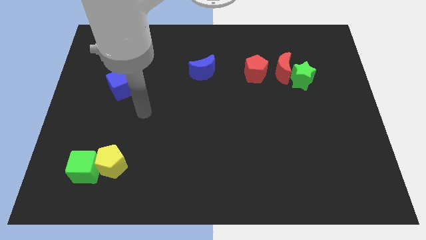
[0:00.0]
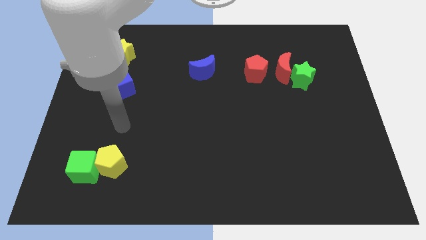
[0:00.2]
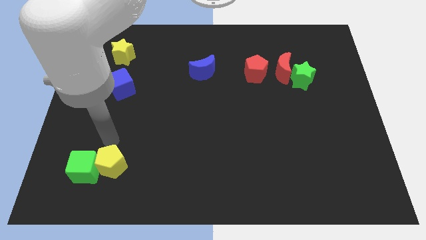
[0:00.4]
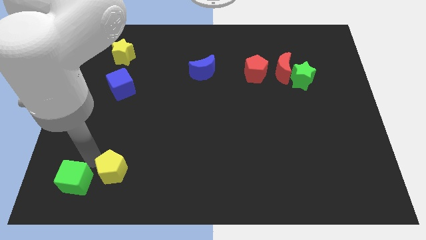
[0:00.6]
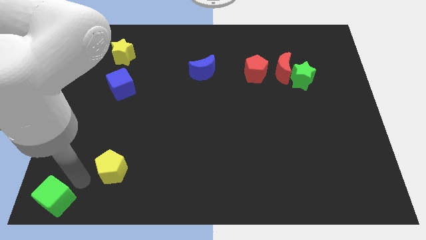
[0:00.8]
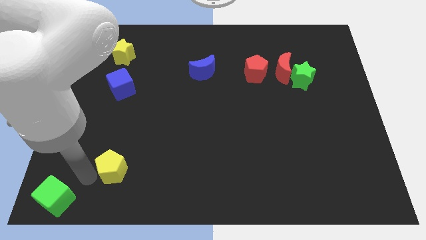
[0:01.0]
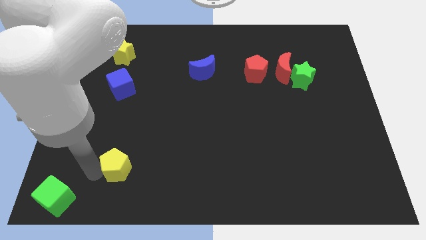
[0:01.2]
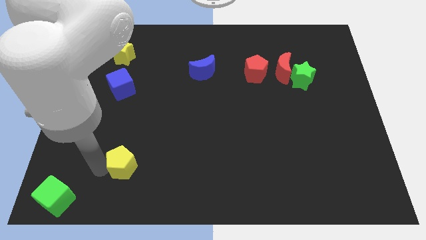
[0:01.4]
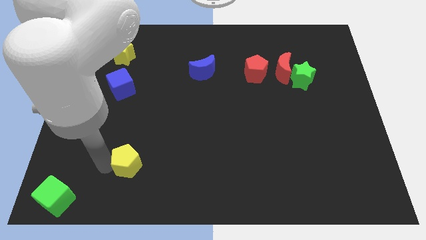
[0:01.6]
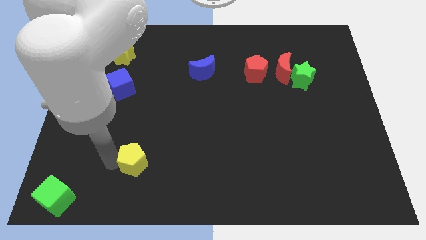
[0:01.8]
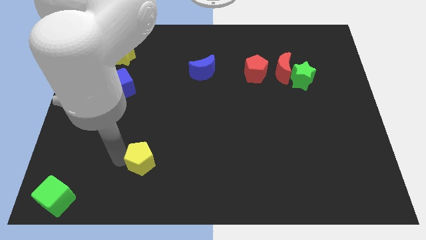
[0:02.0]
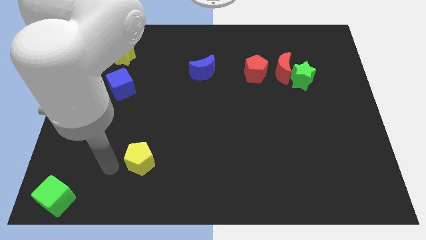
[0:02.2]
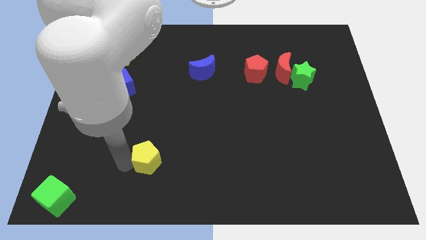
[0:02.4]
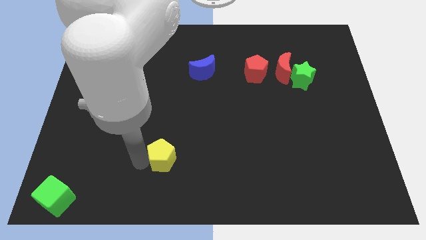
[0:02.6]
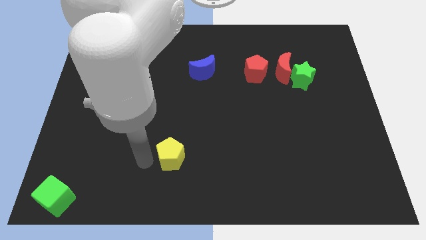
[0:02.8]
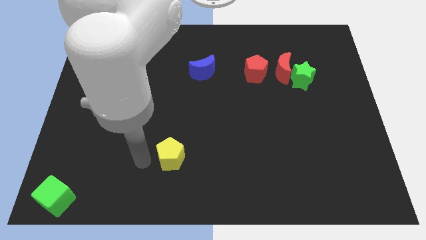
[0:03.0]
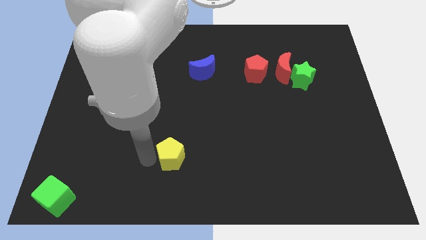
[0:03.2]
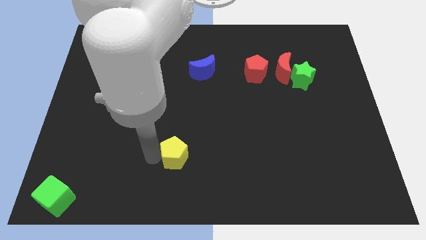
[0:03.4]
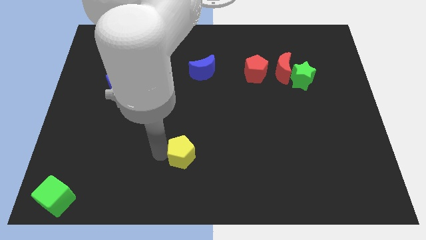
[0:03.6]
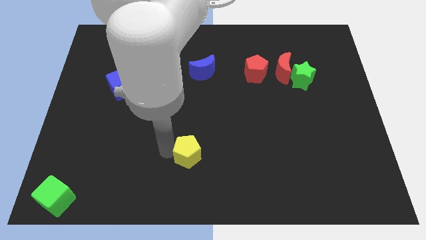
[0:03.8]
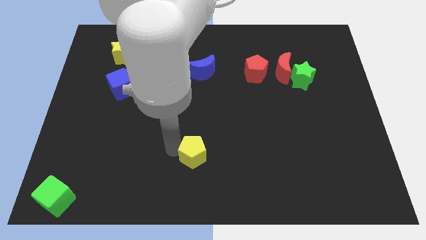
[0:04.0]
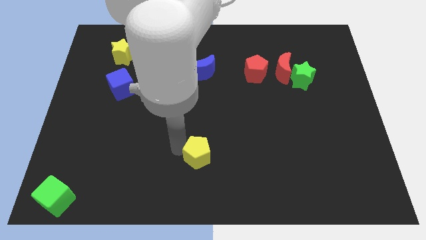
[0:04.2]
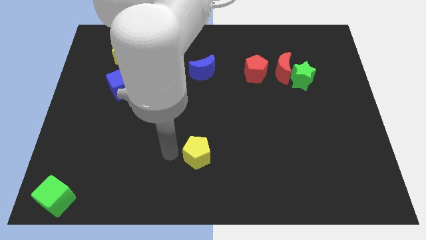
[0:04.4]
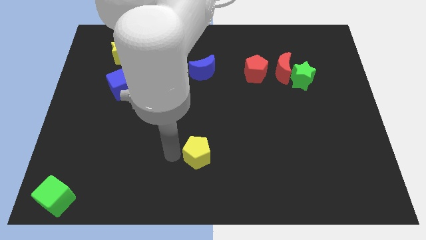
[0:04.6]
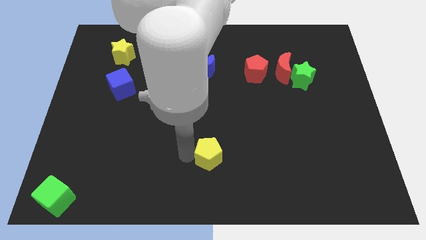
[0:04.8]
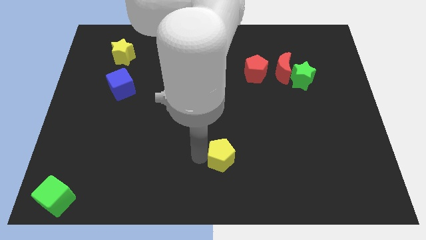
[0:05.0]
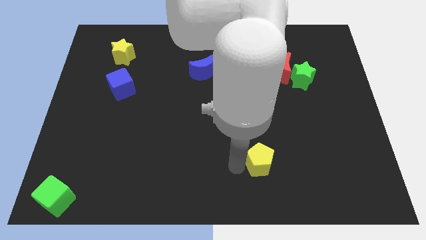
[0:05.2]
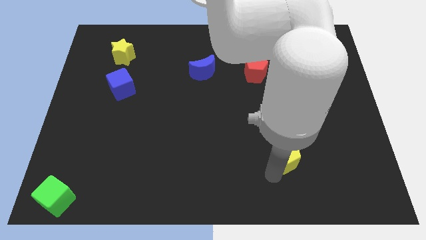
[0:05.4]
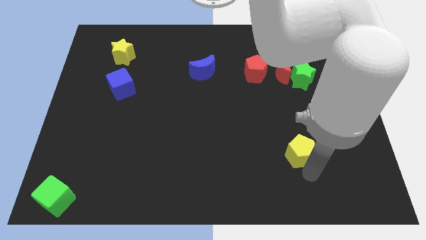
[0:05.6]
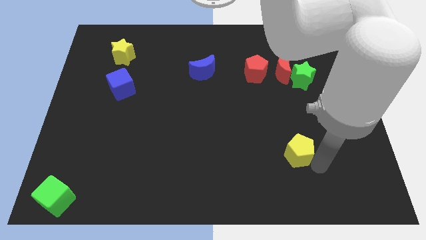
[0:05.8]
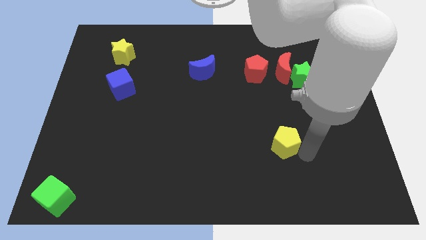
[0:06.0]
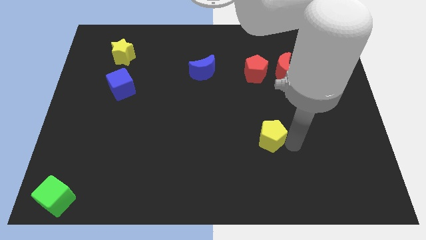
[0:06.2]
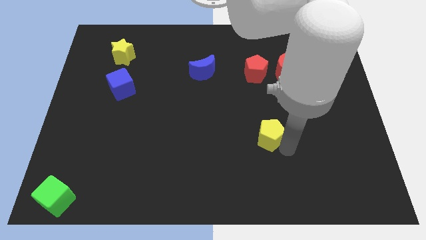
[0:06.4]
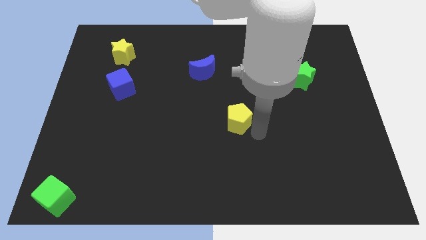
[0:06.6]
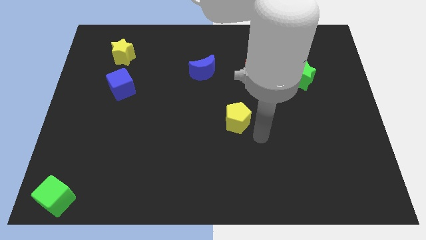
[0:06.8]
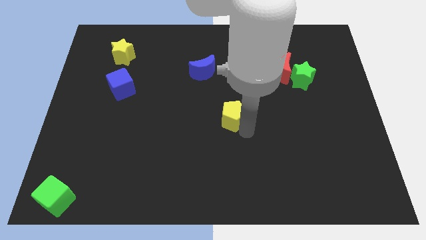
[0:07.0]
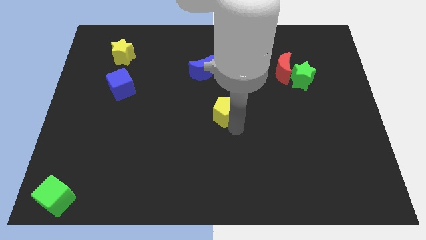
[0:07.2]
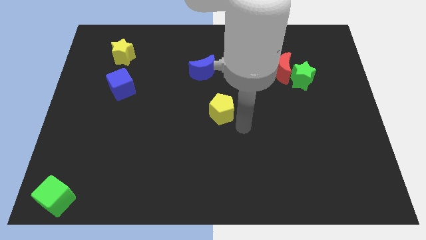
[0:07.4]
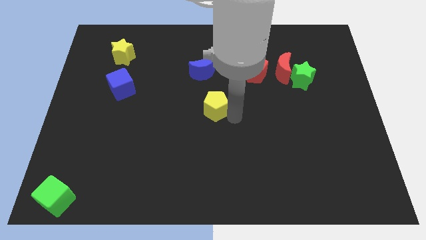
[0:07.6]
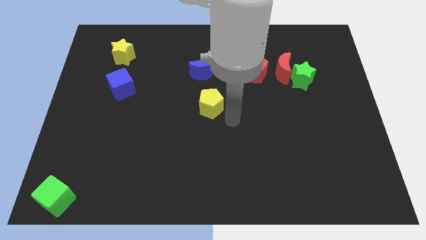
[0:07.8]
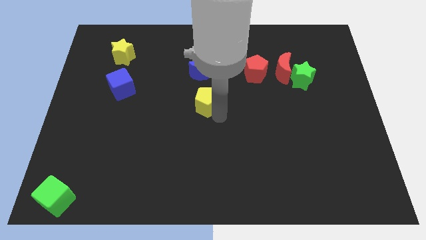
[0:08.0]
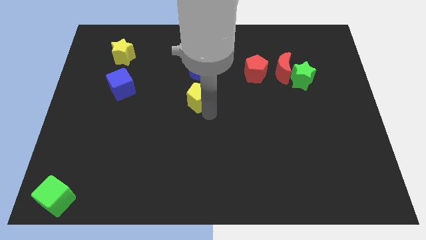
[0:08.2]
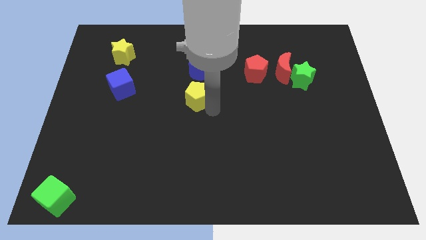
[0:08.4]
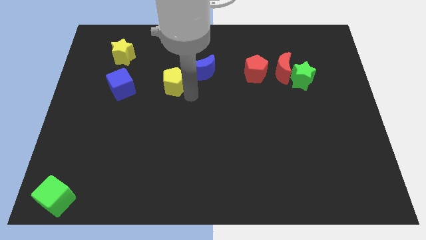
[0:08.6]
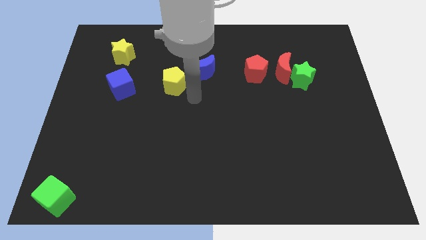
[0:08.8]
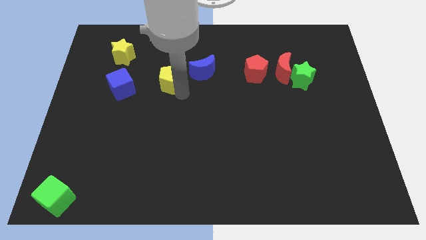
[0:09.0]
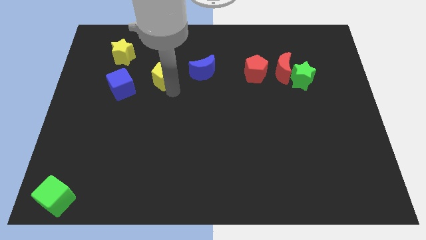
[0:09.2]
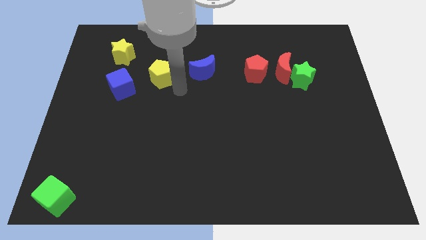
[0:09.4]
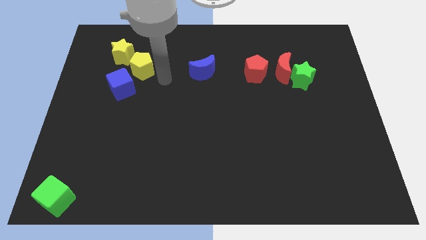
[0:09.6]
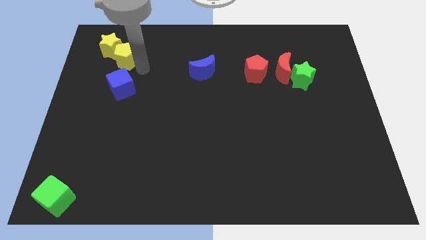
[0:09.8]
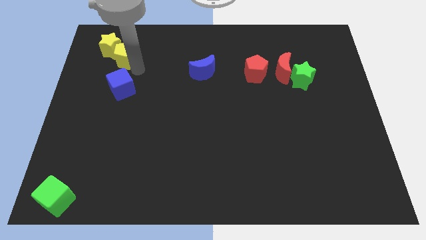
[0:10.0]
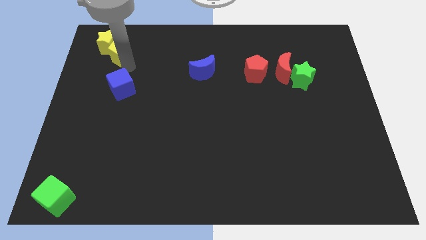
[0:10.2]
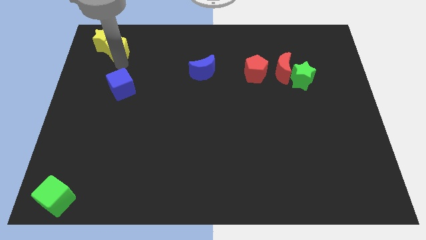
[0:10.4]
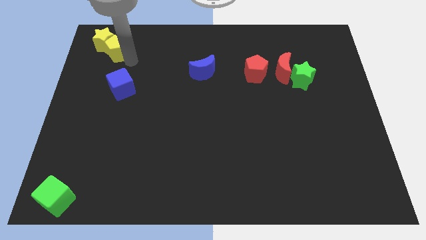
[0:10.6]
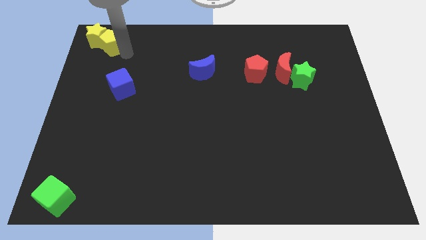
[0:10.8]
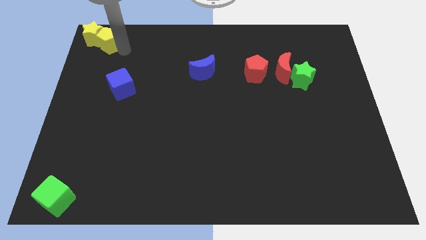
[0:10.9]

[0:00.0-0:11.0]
push the yellow pentagon to the upper left corner

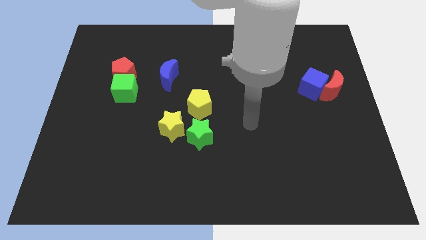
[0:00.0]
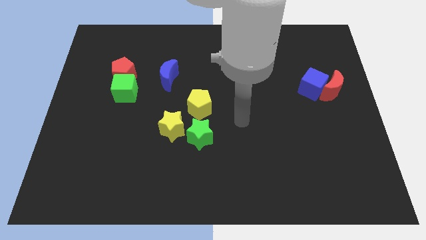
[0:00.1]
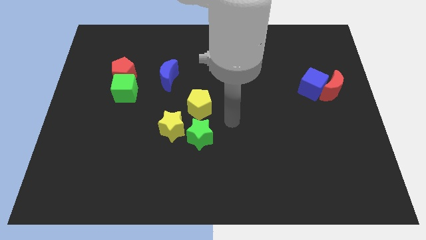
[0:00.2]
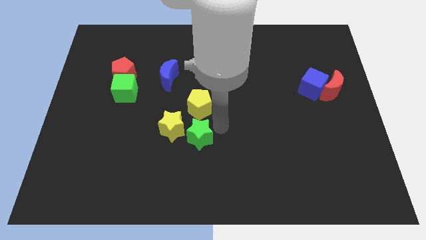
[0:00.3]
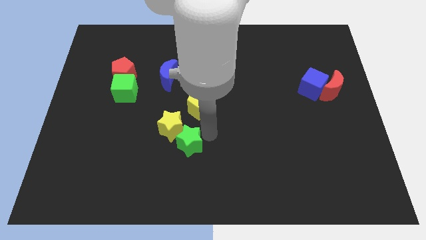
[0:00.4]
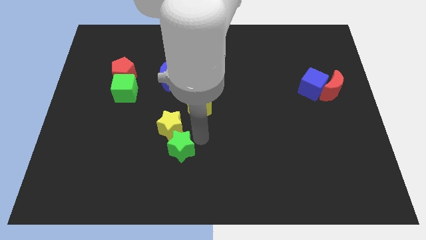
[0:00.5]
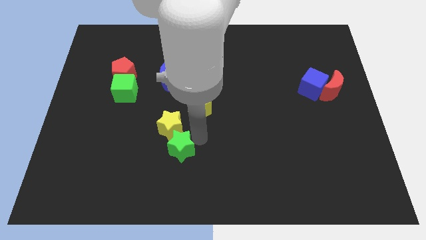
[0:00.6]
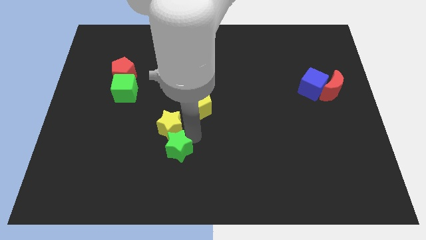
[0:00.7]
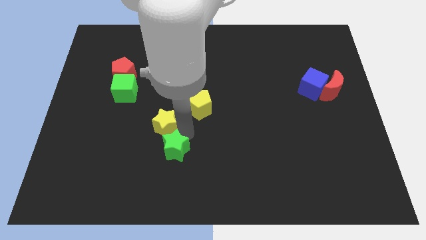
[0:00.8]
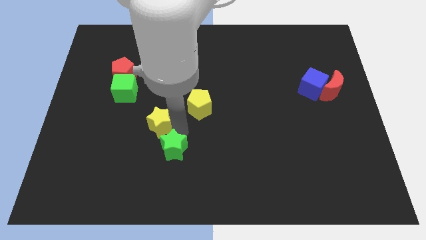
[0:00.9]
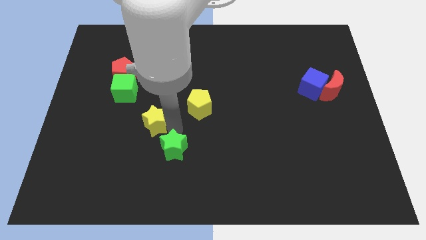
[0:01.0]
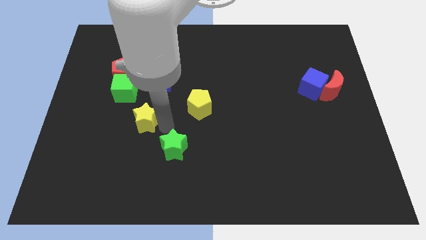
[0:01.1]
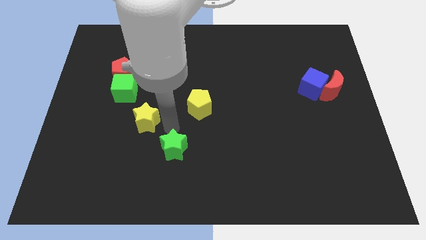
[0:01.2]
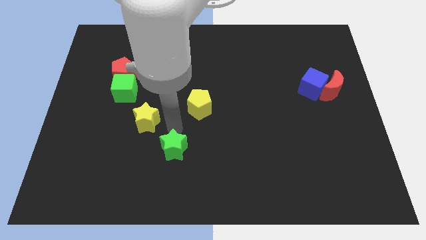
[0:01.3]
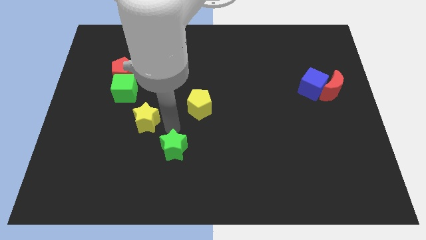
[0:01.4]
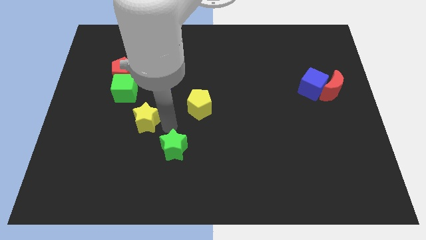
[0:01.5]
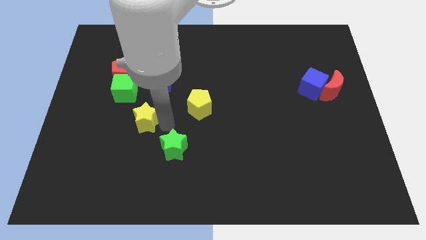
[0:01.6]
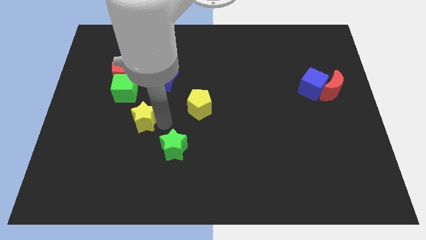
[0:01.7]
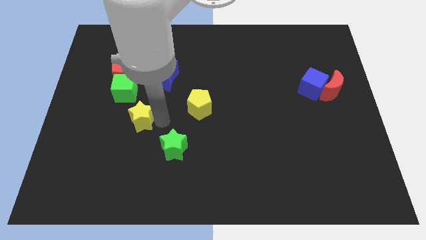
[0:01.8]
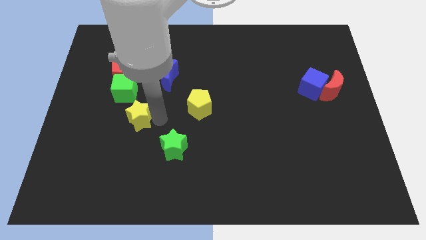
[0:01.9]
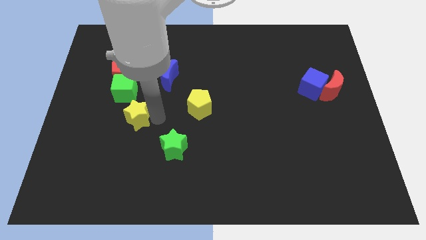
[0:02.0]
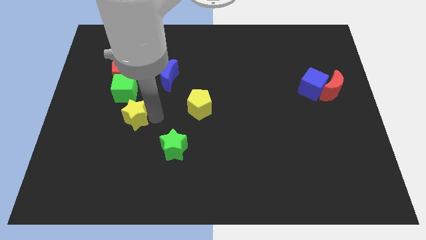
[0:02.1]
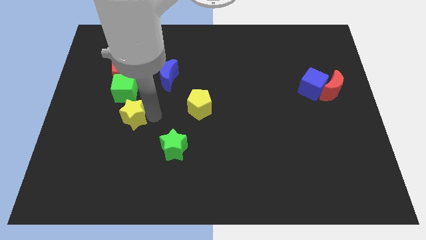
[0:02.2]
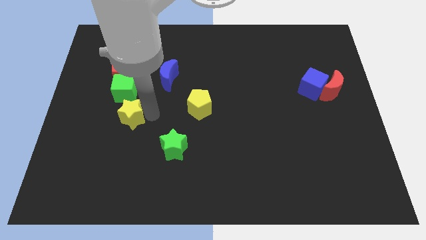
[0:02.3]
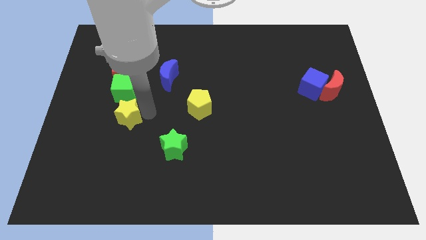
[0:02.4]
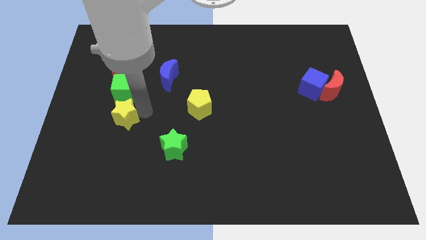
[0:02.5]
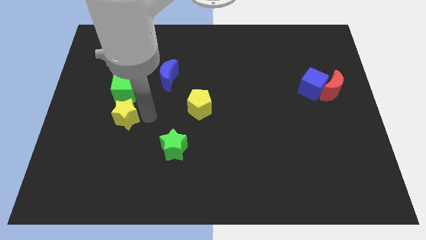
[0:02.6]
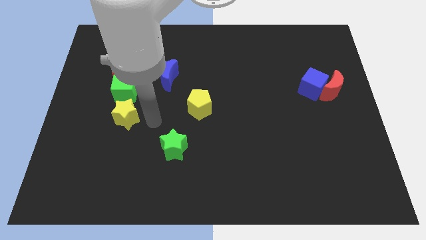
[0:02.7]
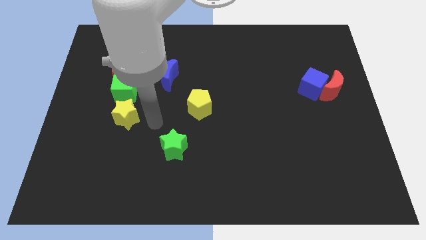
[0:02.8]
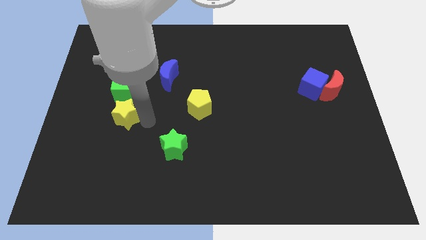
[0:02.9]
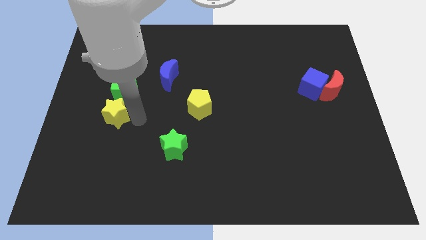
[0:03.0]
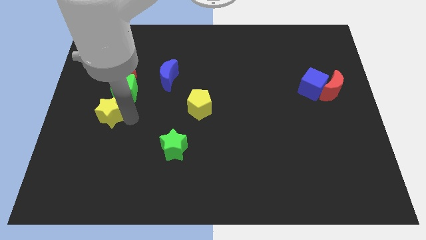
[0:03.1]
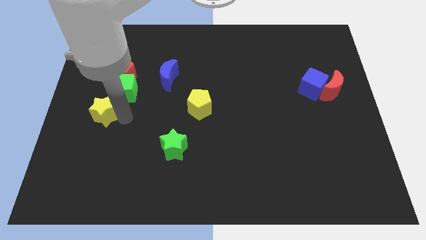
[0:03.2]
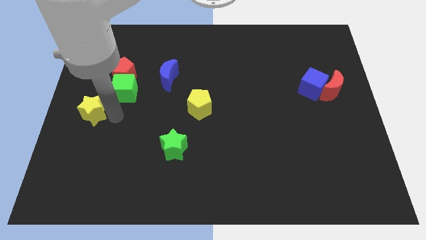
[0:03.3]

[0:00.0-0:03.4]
slide the yellow star to the left side
